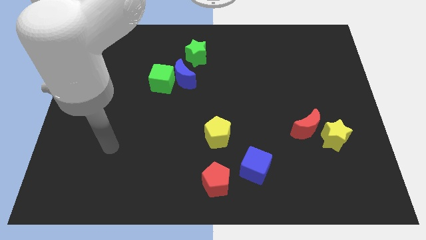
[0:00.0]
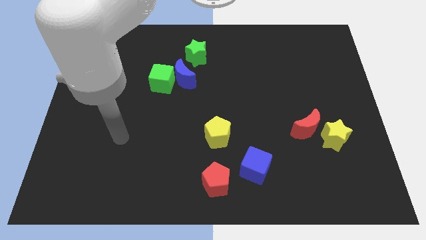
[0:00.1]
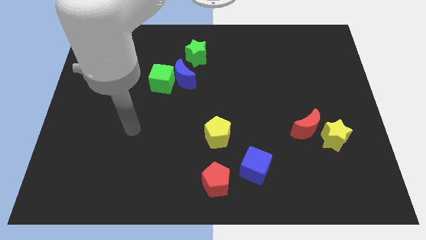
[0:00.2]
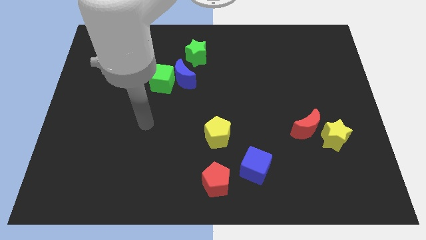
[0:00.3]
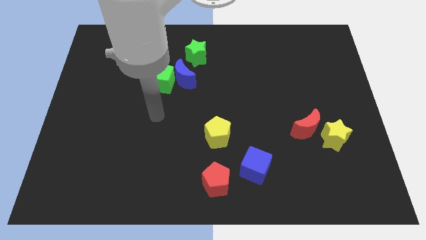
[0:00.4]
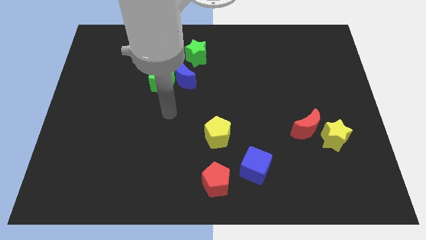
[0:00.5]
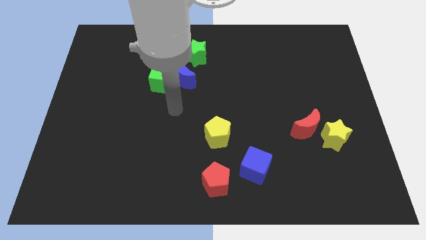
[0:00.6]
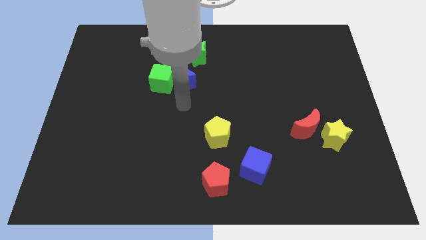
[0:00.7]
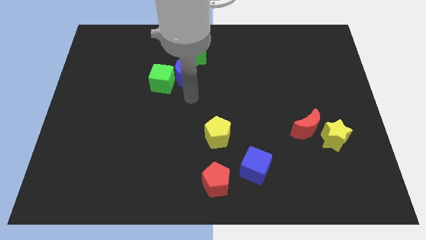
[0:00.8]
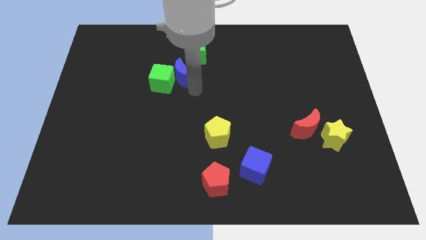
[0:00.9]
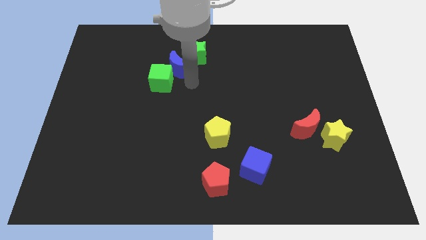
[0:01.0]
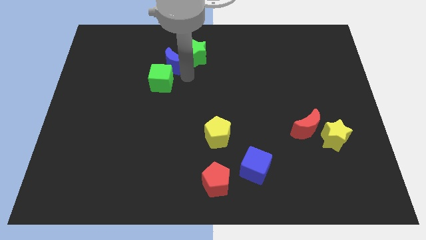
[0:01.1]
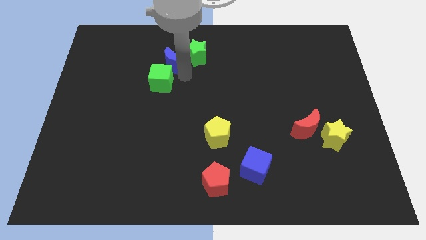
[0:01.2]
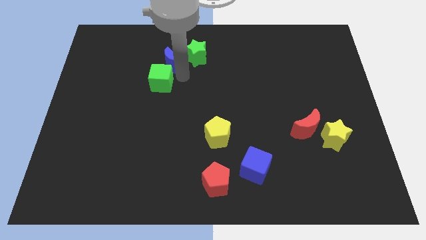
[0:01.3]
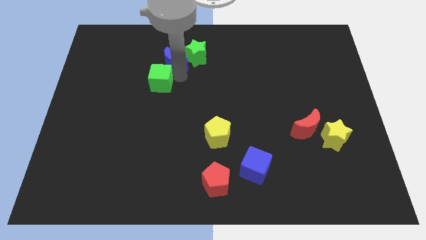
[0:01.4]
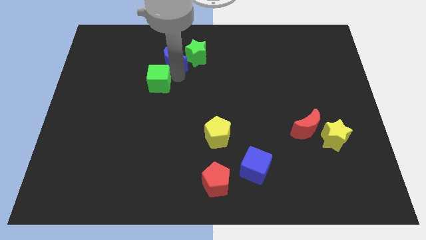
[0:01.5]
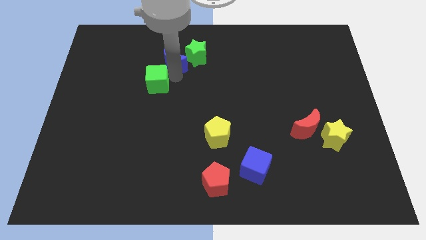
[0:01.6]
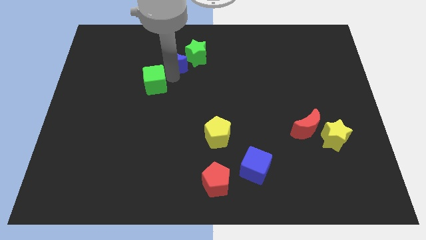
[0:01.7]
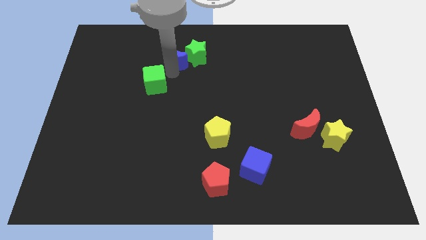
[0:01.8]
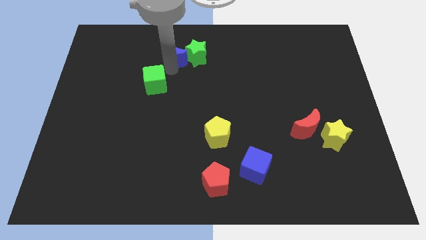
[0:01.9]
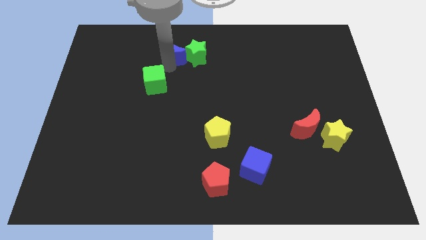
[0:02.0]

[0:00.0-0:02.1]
move the green cube away from the blue moon

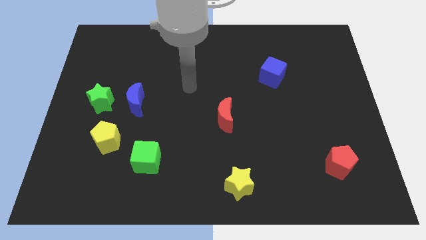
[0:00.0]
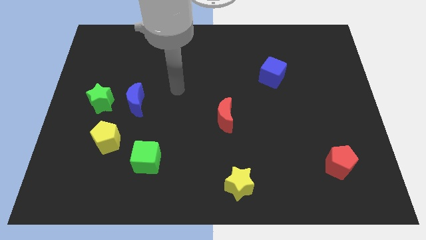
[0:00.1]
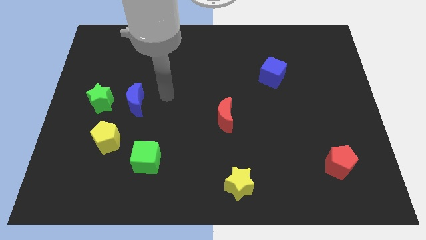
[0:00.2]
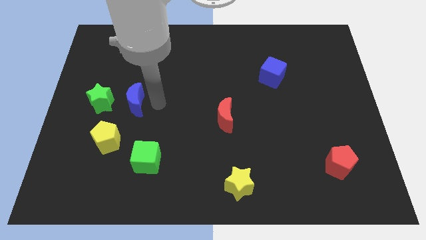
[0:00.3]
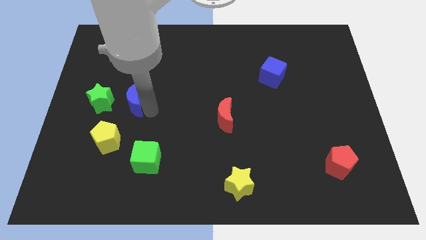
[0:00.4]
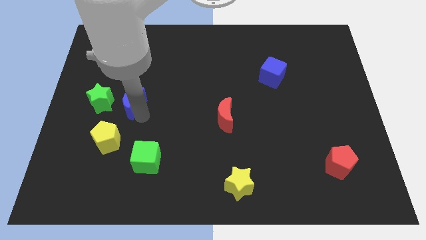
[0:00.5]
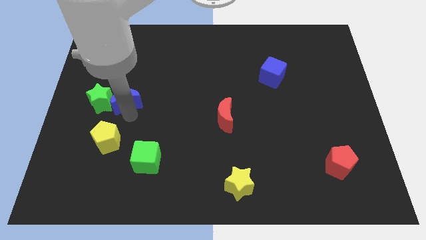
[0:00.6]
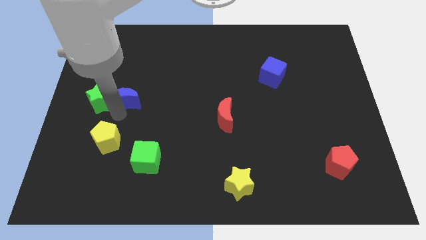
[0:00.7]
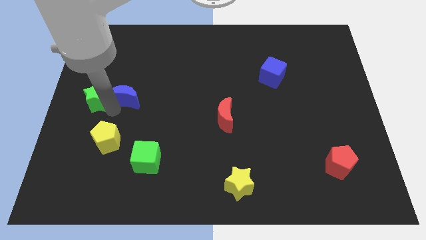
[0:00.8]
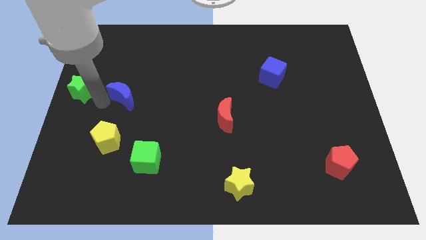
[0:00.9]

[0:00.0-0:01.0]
separate the blue moon from the green star

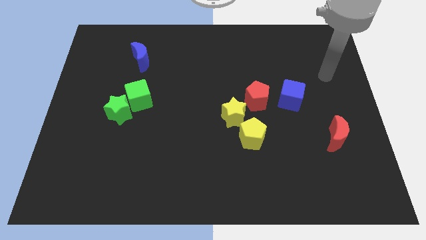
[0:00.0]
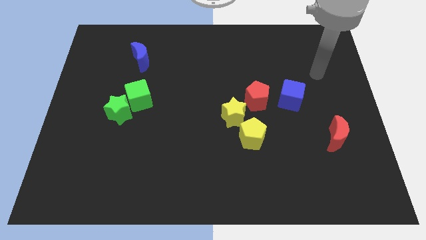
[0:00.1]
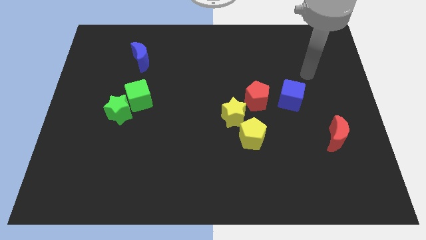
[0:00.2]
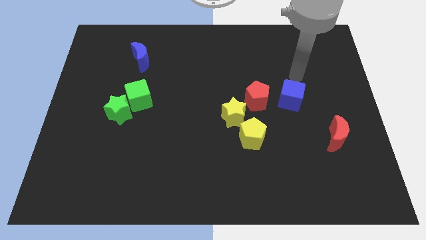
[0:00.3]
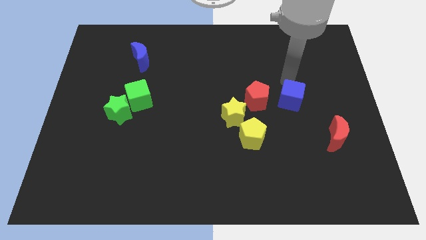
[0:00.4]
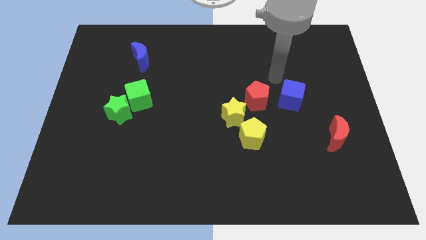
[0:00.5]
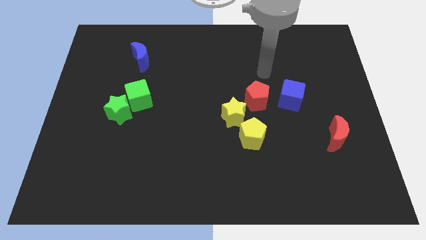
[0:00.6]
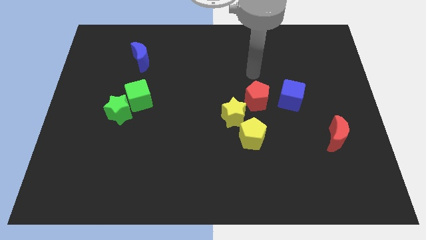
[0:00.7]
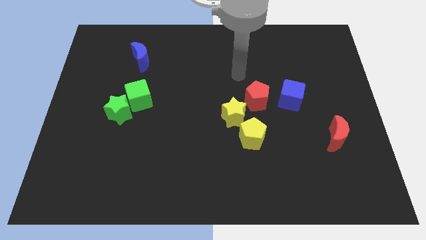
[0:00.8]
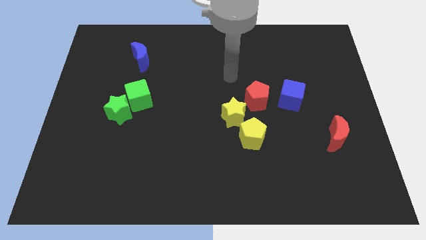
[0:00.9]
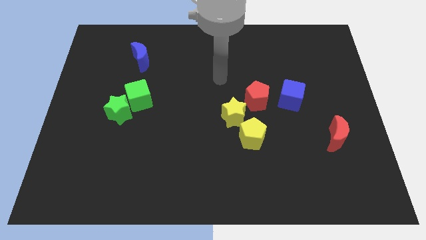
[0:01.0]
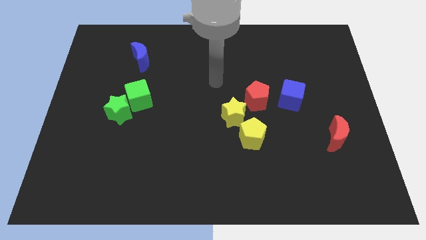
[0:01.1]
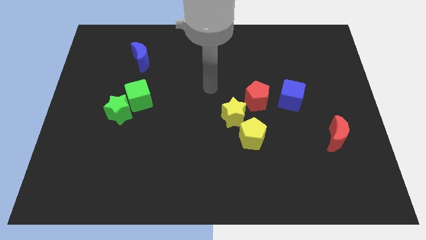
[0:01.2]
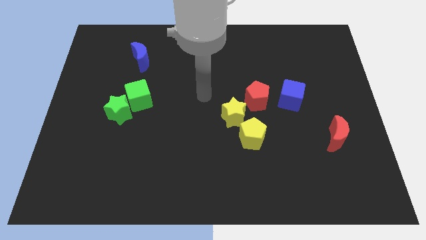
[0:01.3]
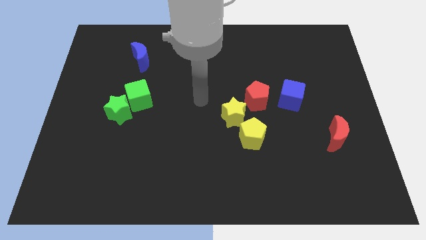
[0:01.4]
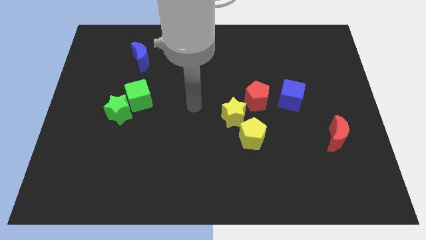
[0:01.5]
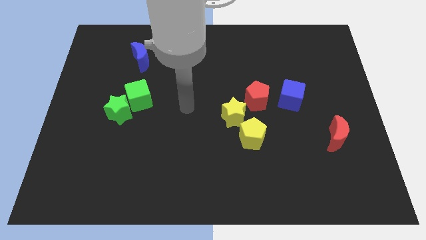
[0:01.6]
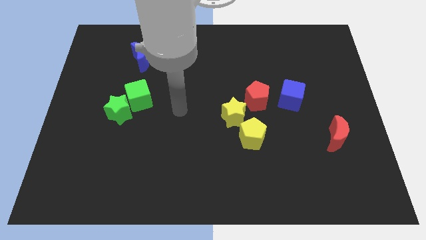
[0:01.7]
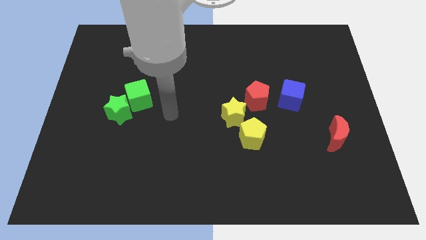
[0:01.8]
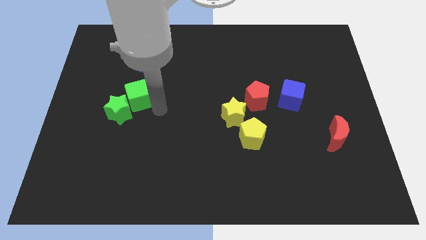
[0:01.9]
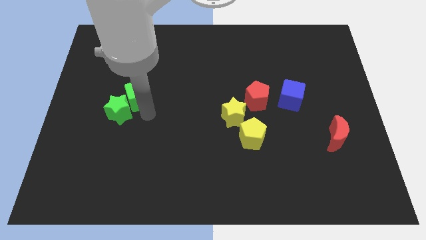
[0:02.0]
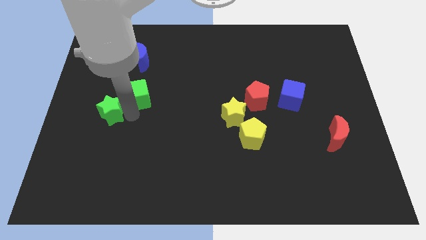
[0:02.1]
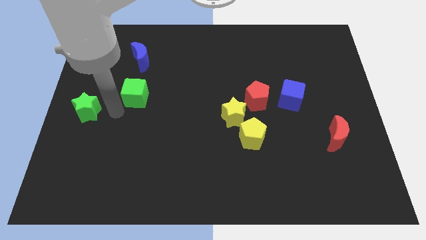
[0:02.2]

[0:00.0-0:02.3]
separate the green cube from the green star

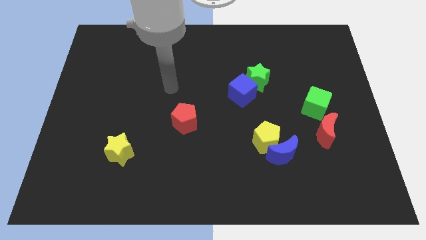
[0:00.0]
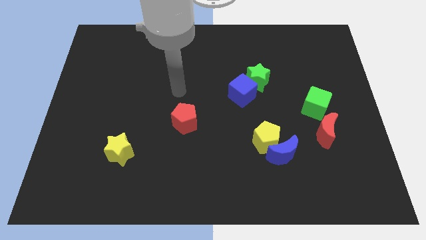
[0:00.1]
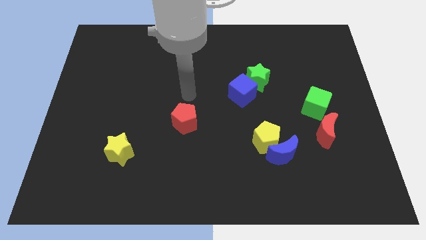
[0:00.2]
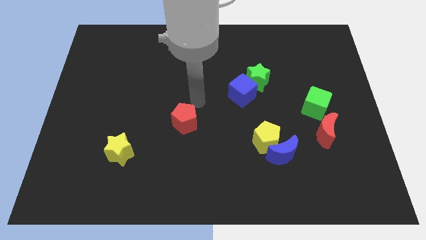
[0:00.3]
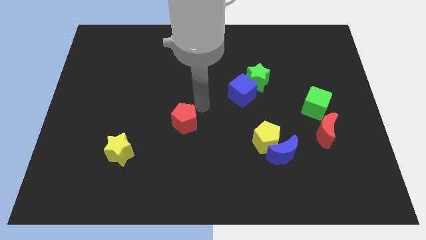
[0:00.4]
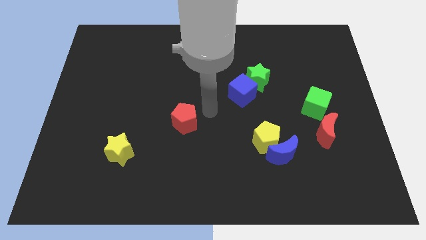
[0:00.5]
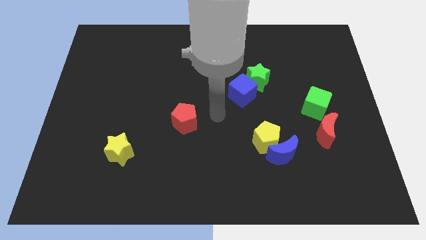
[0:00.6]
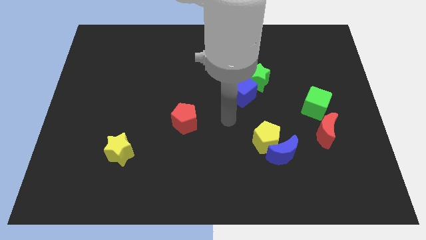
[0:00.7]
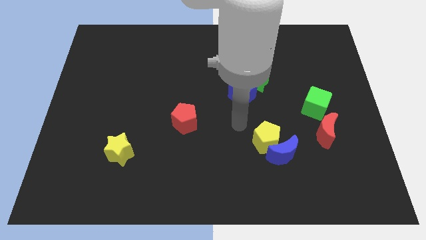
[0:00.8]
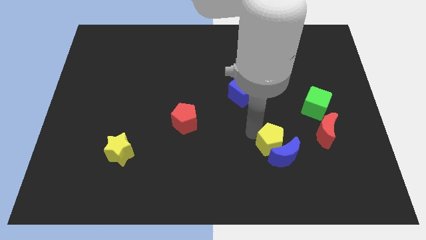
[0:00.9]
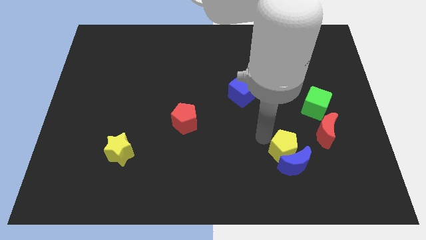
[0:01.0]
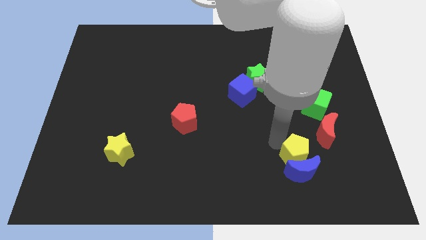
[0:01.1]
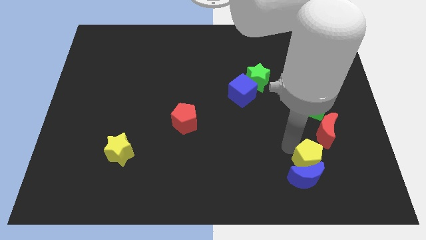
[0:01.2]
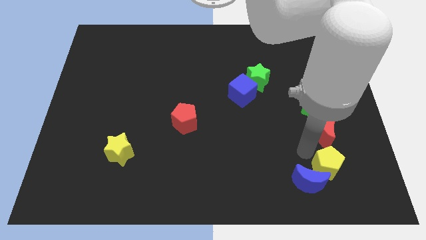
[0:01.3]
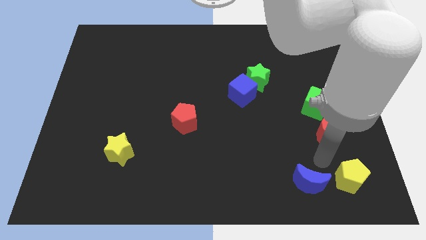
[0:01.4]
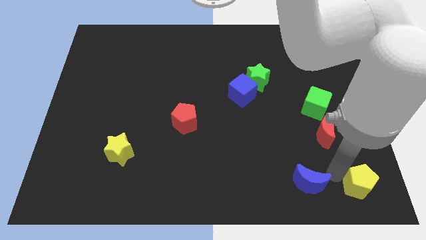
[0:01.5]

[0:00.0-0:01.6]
pull the blue moon apart from the yellow pentagon

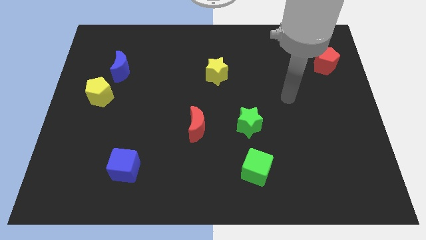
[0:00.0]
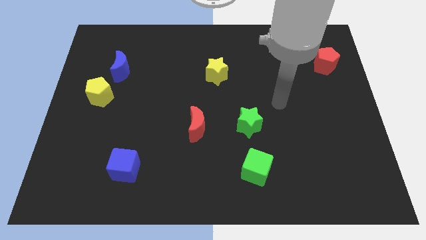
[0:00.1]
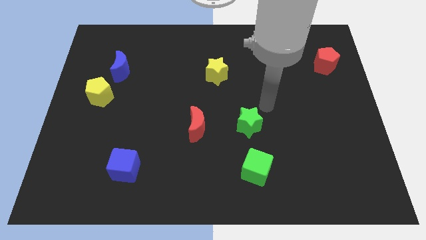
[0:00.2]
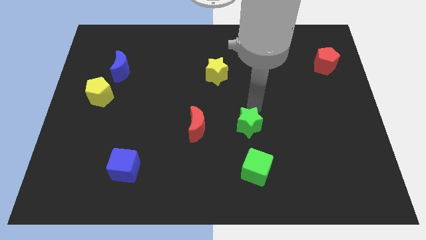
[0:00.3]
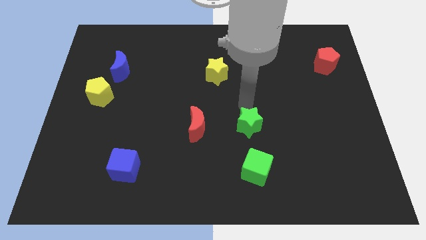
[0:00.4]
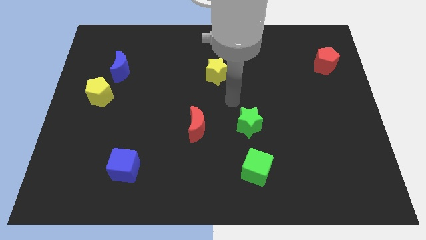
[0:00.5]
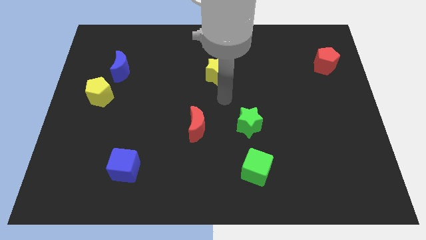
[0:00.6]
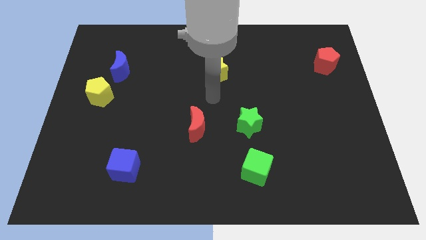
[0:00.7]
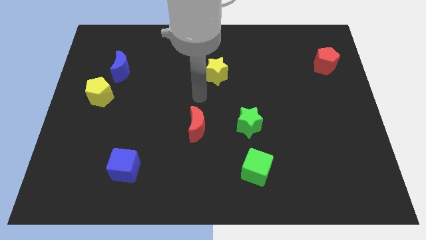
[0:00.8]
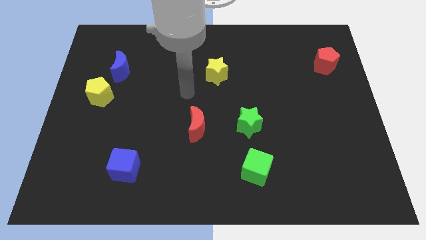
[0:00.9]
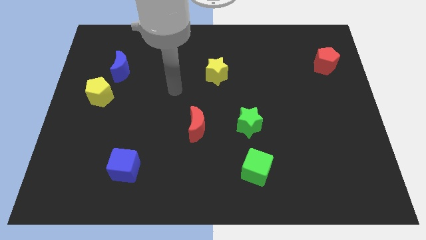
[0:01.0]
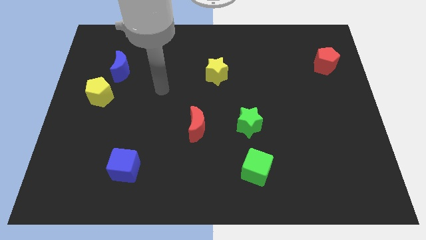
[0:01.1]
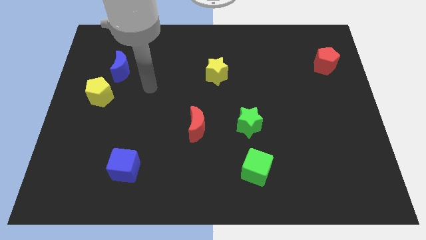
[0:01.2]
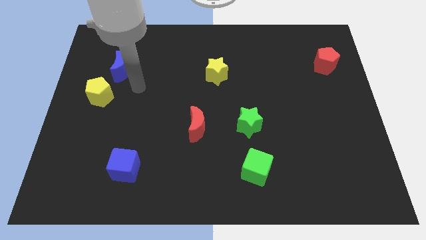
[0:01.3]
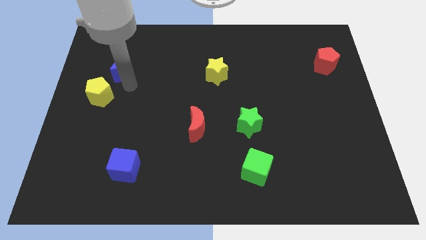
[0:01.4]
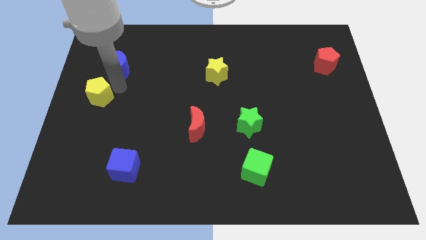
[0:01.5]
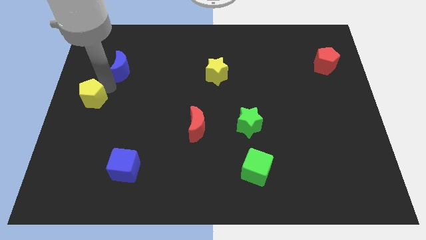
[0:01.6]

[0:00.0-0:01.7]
separate the blue moon from the yellow pentagon

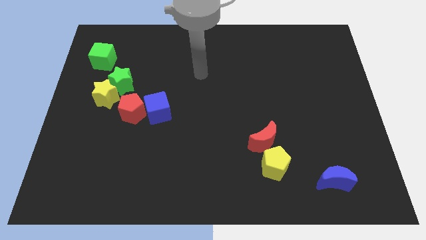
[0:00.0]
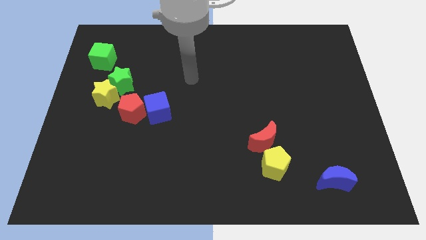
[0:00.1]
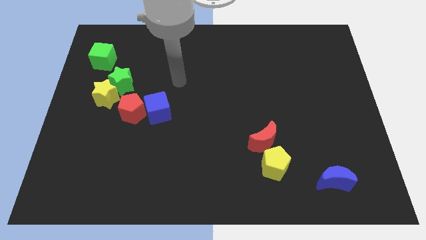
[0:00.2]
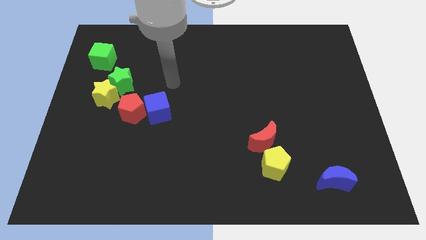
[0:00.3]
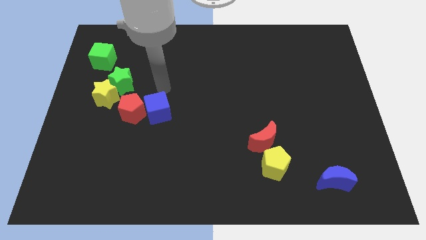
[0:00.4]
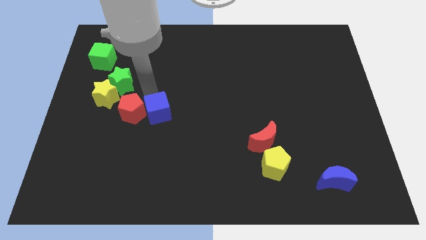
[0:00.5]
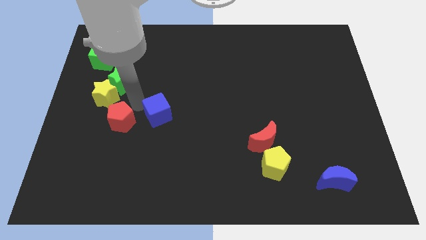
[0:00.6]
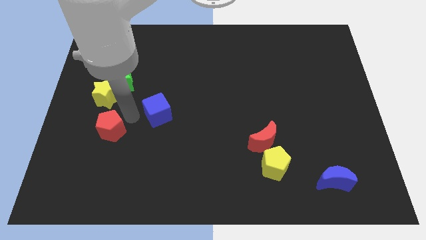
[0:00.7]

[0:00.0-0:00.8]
pull the blue cube apart from the red pentagon
